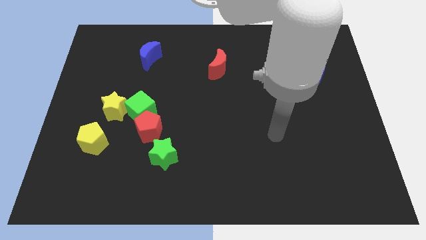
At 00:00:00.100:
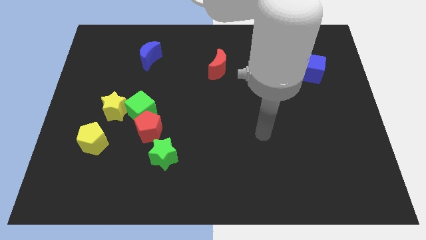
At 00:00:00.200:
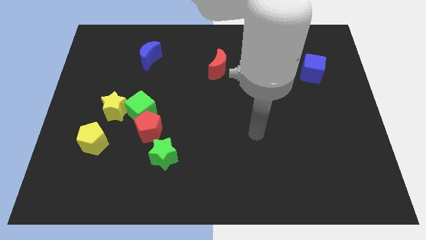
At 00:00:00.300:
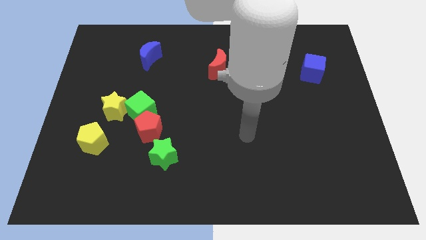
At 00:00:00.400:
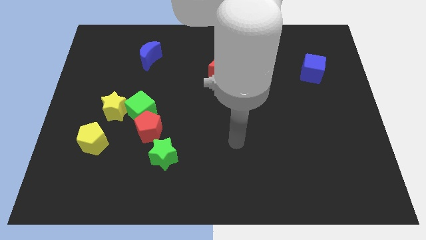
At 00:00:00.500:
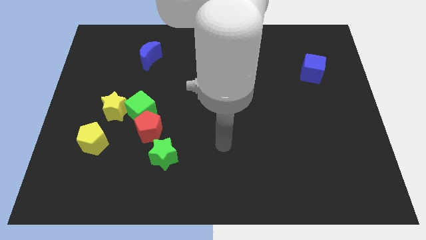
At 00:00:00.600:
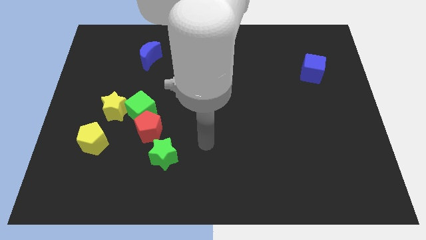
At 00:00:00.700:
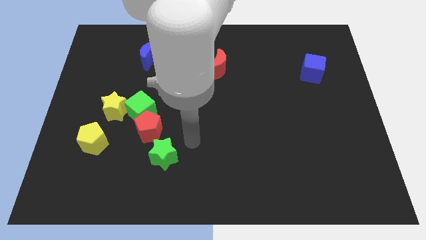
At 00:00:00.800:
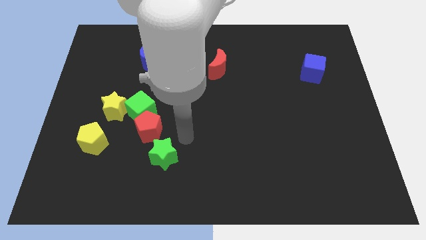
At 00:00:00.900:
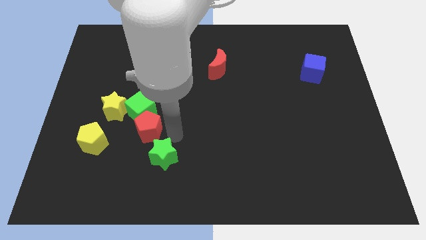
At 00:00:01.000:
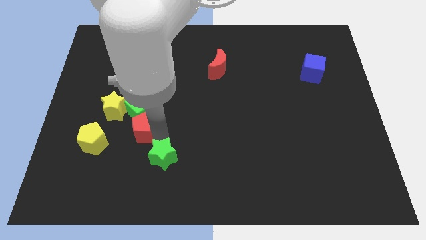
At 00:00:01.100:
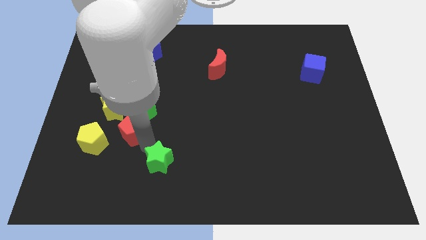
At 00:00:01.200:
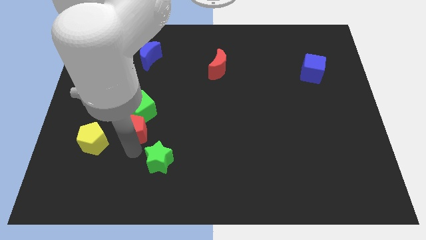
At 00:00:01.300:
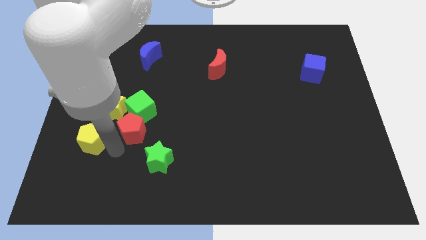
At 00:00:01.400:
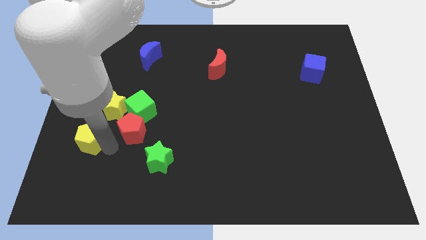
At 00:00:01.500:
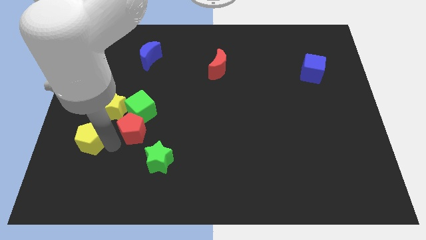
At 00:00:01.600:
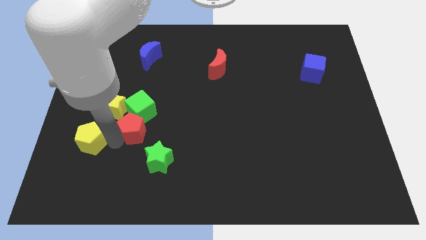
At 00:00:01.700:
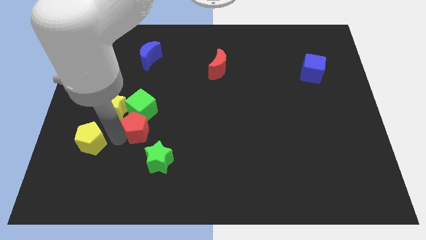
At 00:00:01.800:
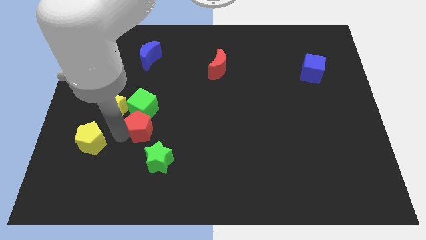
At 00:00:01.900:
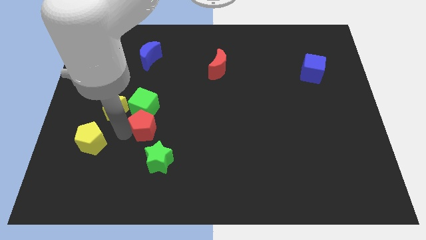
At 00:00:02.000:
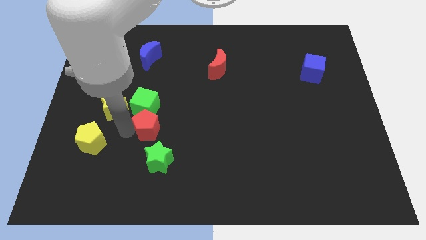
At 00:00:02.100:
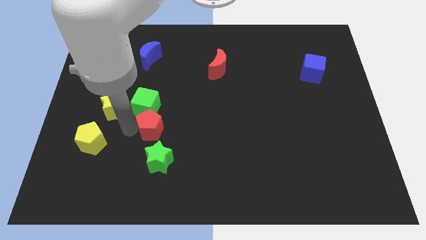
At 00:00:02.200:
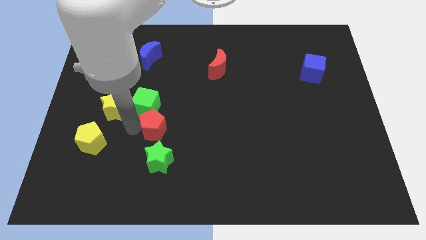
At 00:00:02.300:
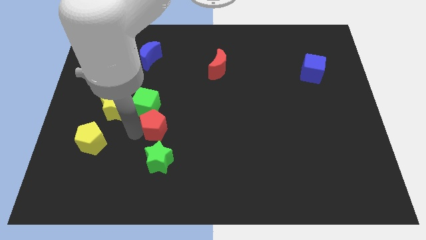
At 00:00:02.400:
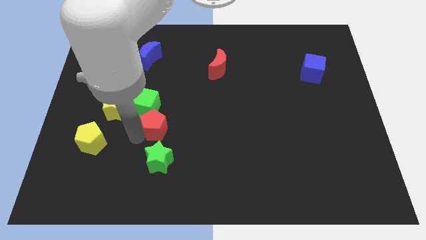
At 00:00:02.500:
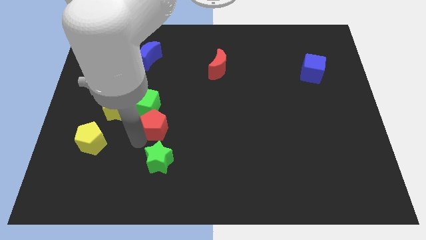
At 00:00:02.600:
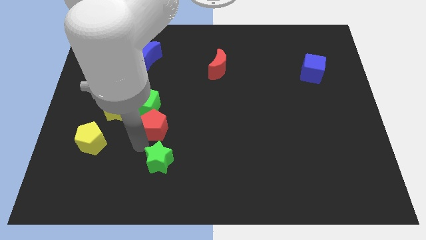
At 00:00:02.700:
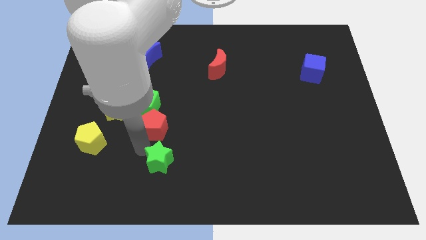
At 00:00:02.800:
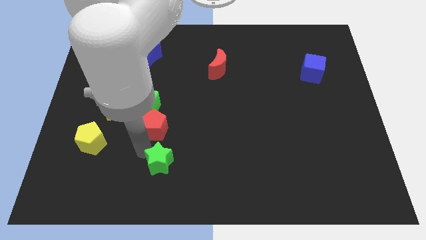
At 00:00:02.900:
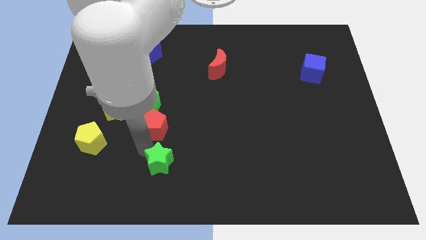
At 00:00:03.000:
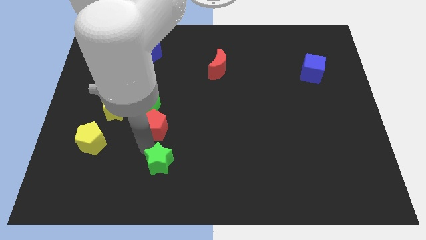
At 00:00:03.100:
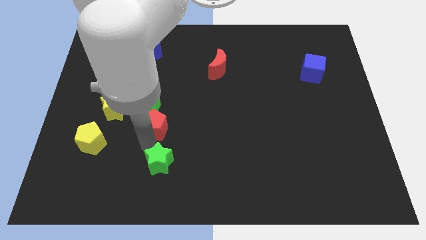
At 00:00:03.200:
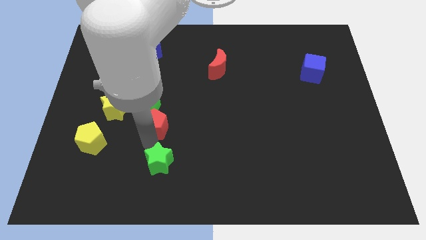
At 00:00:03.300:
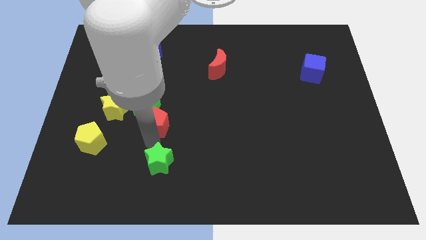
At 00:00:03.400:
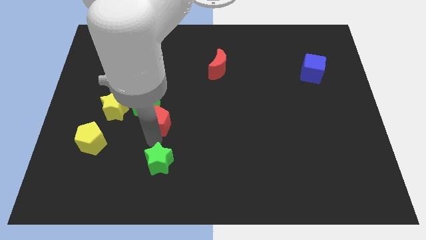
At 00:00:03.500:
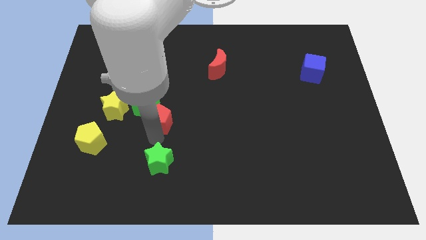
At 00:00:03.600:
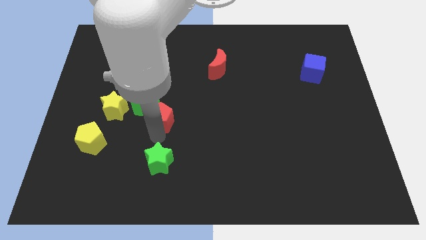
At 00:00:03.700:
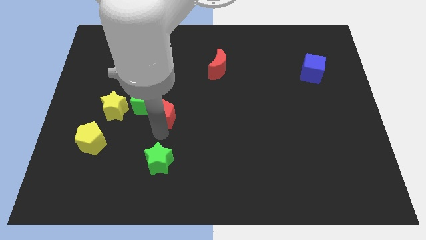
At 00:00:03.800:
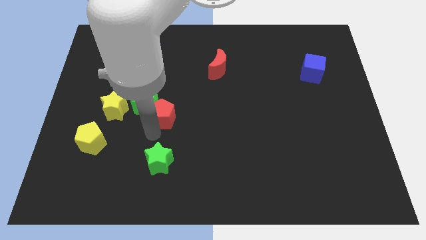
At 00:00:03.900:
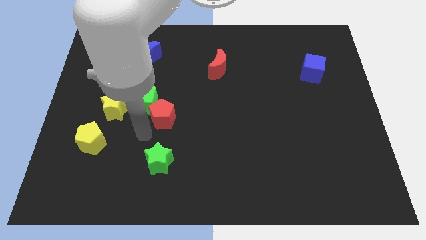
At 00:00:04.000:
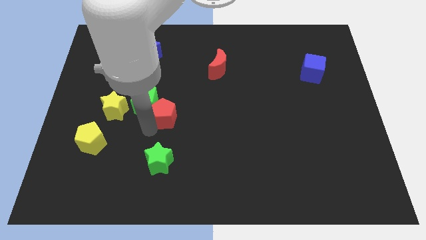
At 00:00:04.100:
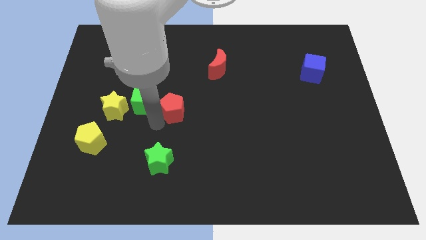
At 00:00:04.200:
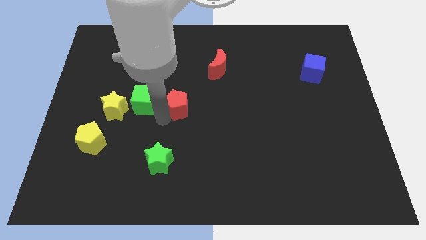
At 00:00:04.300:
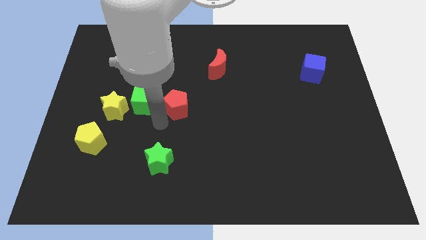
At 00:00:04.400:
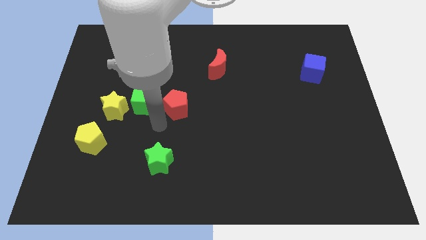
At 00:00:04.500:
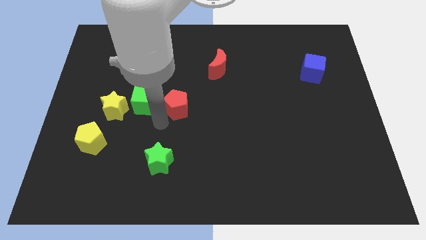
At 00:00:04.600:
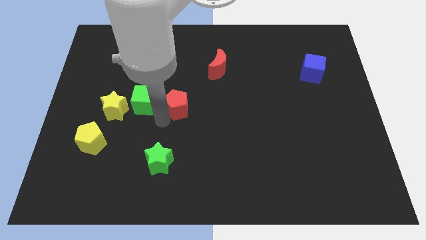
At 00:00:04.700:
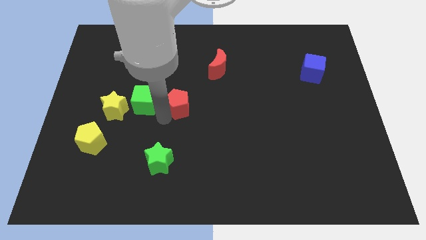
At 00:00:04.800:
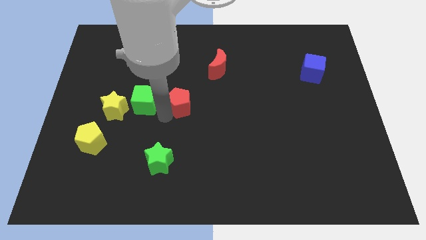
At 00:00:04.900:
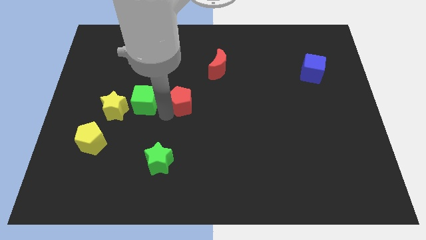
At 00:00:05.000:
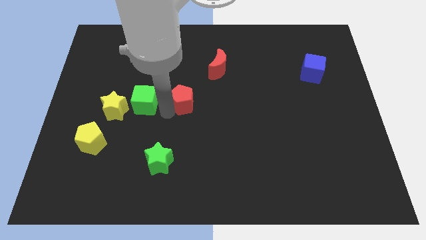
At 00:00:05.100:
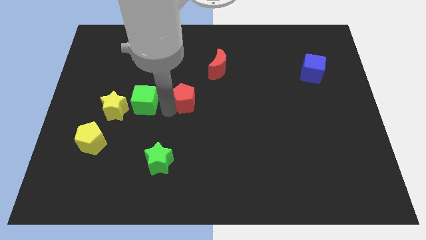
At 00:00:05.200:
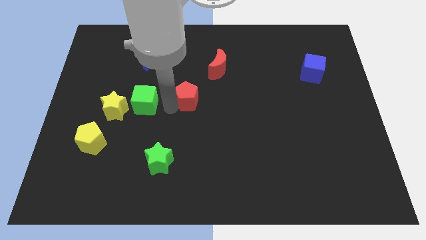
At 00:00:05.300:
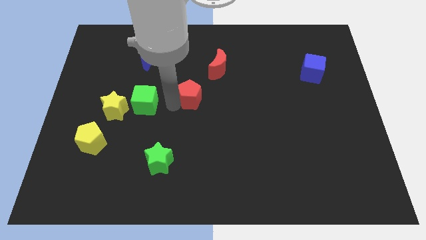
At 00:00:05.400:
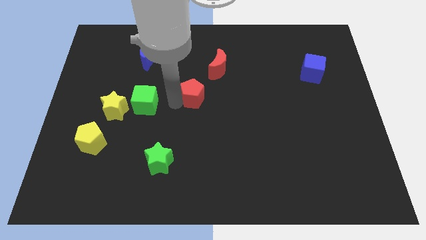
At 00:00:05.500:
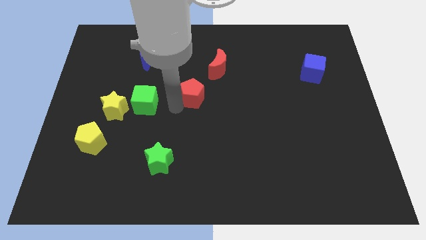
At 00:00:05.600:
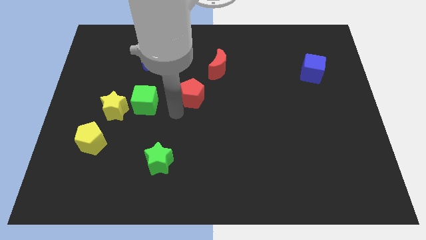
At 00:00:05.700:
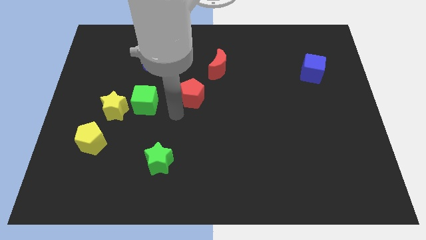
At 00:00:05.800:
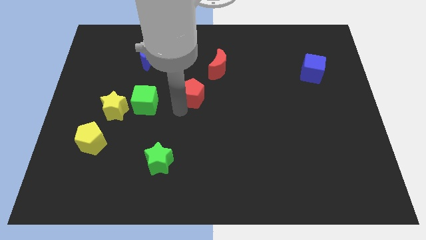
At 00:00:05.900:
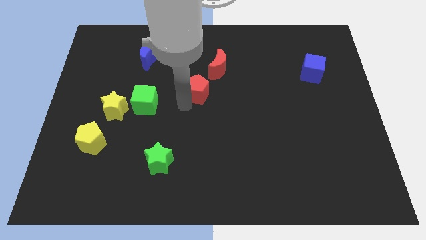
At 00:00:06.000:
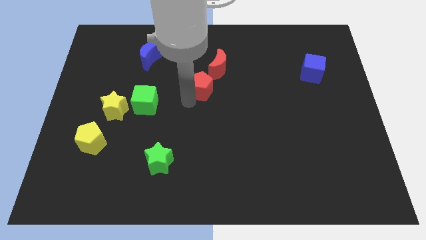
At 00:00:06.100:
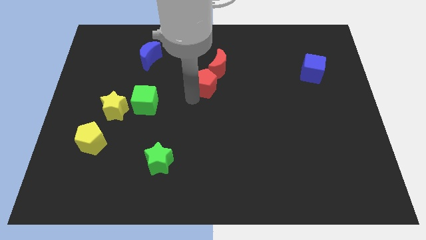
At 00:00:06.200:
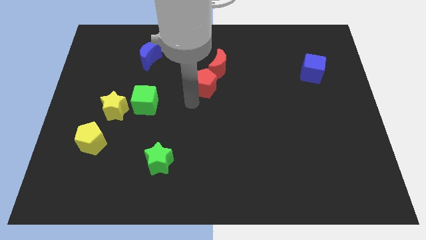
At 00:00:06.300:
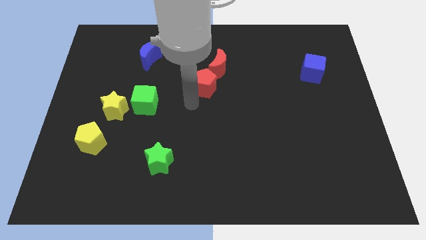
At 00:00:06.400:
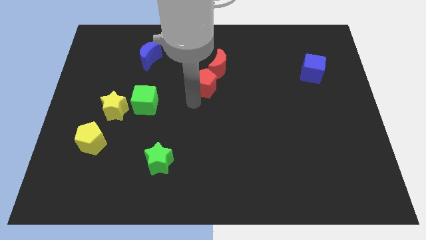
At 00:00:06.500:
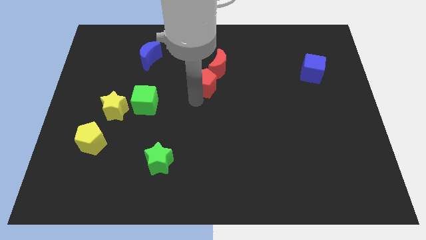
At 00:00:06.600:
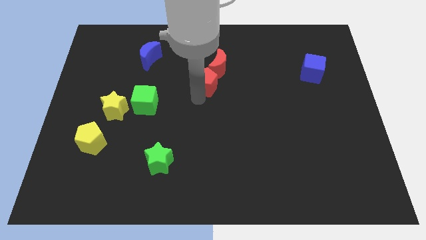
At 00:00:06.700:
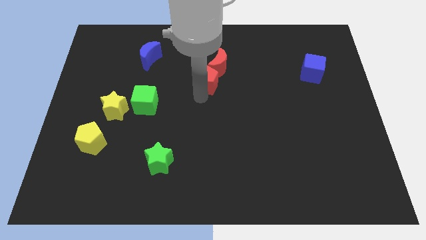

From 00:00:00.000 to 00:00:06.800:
put the red pentagon close to the red moon
